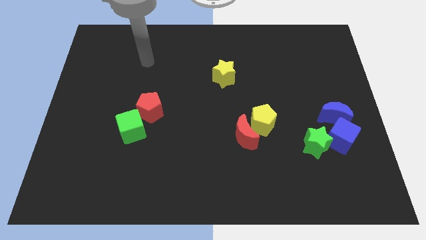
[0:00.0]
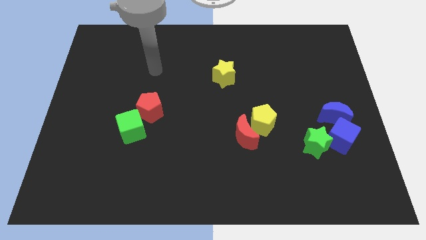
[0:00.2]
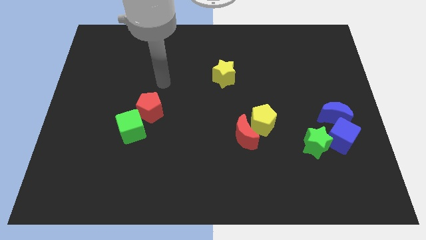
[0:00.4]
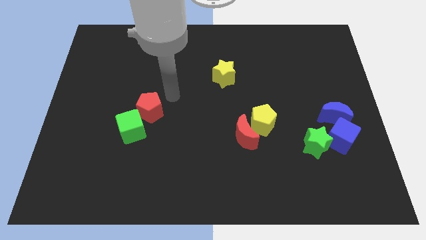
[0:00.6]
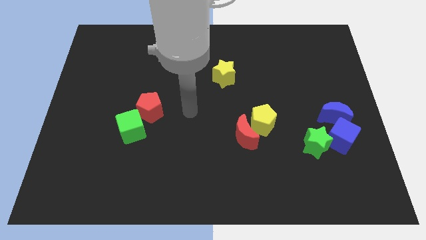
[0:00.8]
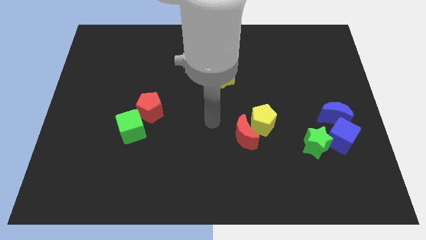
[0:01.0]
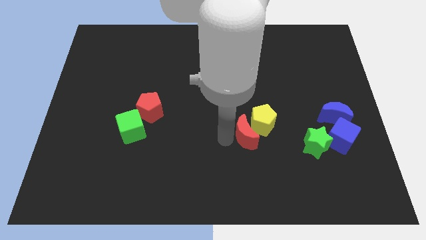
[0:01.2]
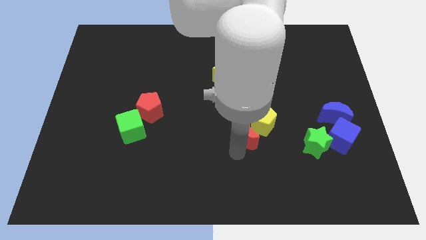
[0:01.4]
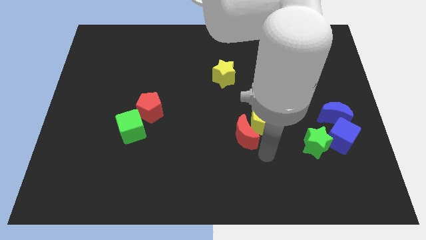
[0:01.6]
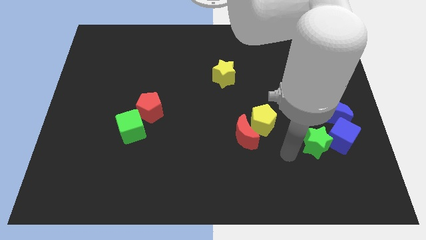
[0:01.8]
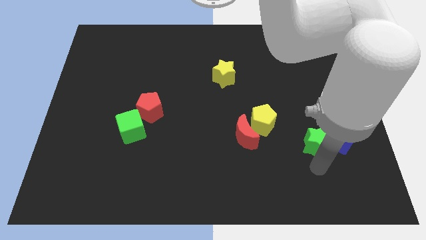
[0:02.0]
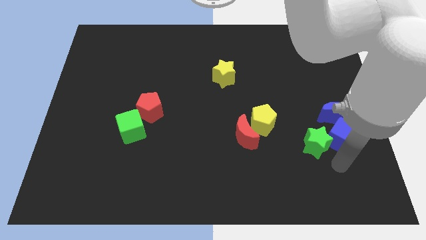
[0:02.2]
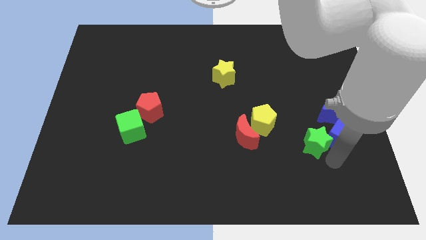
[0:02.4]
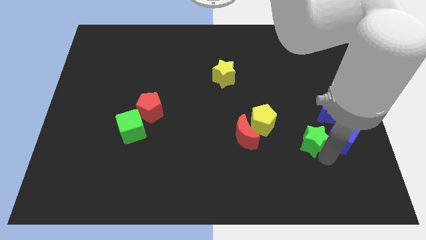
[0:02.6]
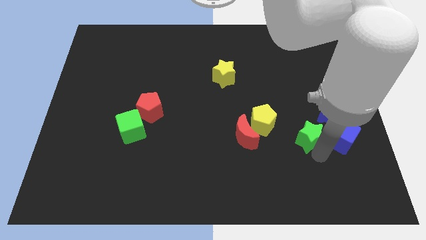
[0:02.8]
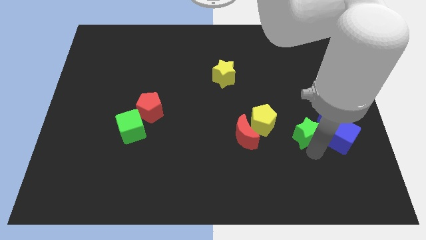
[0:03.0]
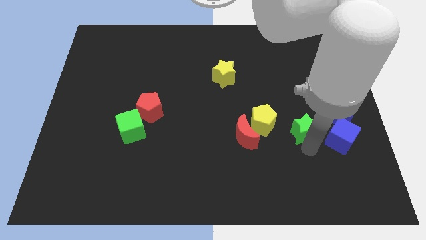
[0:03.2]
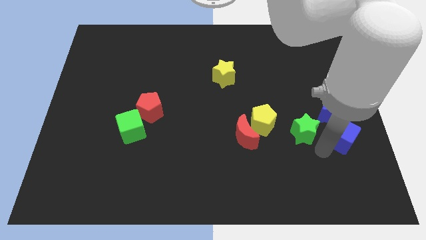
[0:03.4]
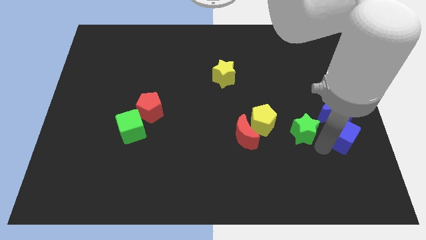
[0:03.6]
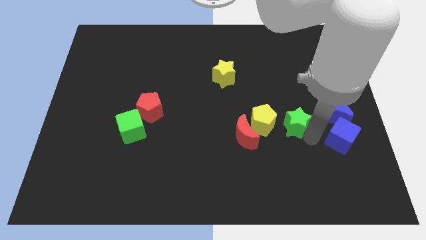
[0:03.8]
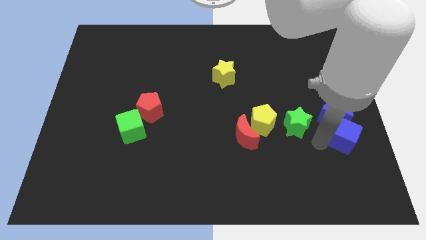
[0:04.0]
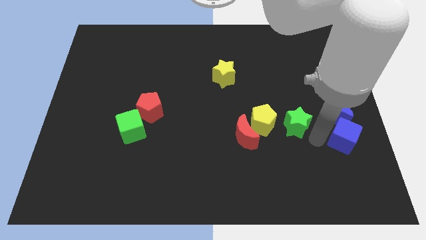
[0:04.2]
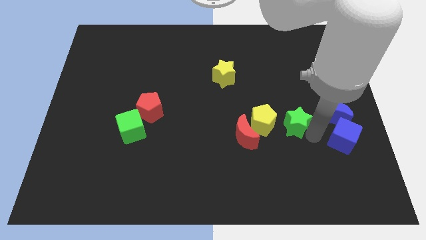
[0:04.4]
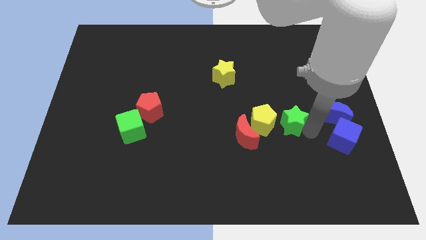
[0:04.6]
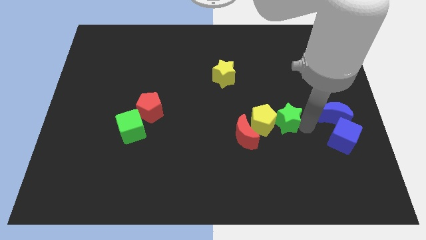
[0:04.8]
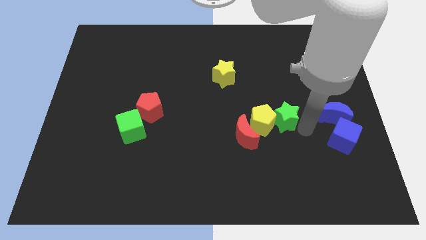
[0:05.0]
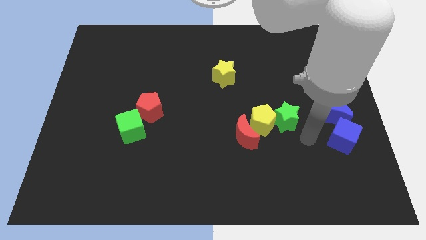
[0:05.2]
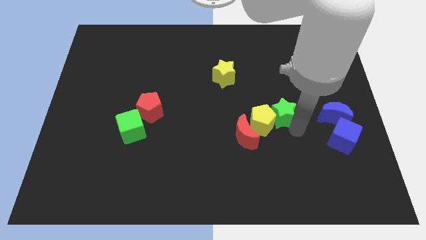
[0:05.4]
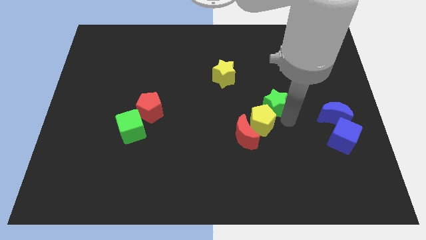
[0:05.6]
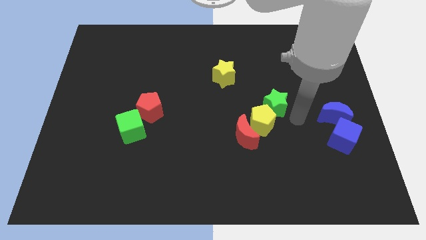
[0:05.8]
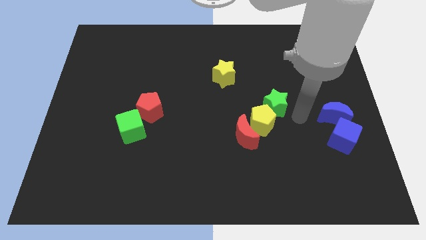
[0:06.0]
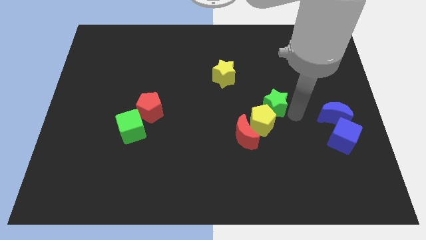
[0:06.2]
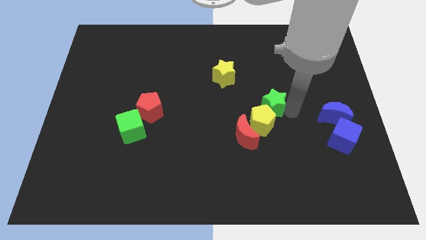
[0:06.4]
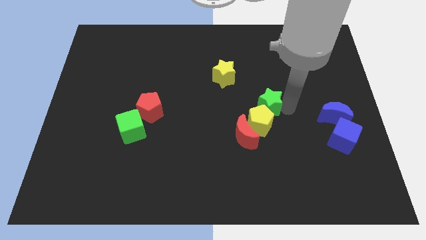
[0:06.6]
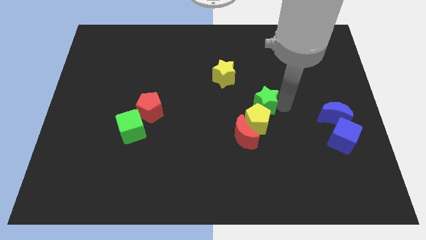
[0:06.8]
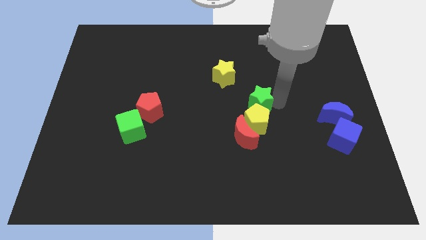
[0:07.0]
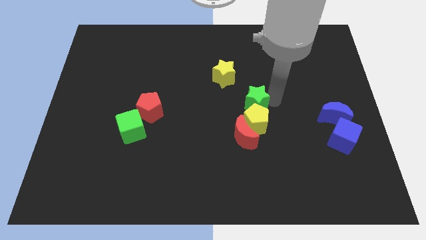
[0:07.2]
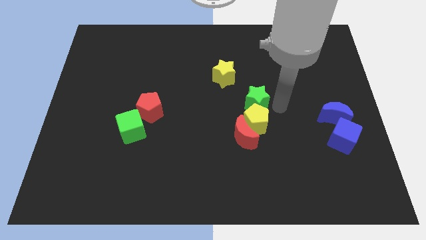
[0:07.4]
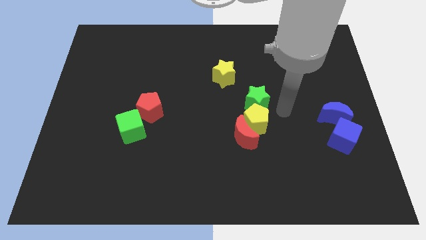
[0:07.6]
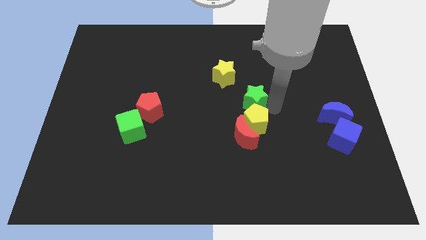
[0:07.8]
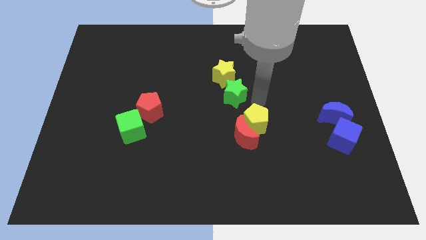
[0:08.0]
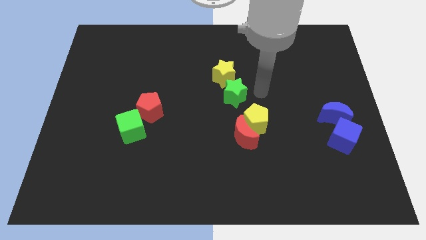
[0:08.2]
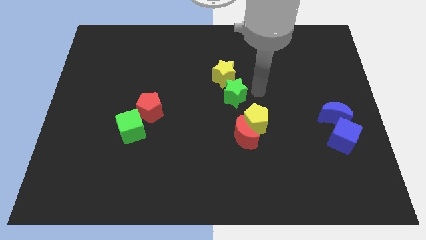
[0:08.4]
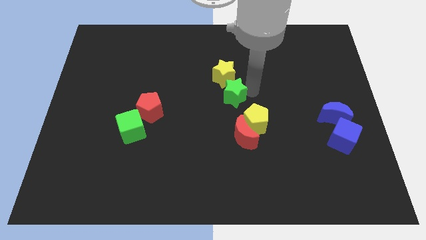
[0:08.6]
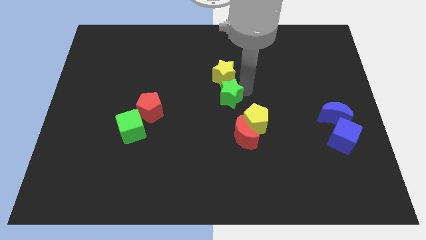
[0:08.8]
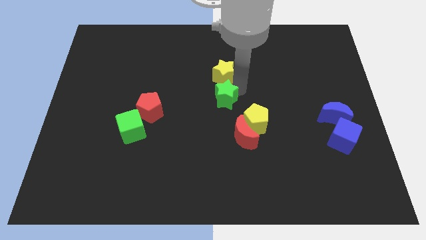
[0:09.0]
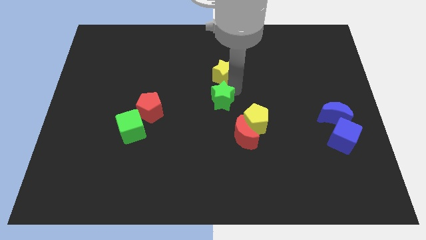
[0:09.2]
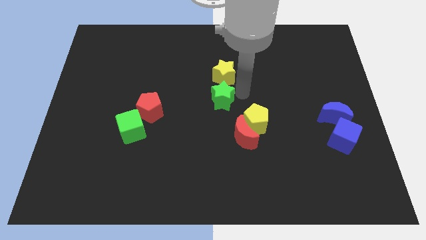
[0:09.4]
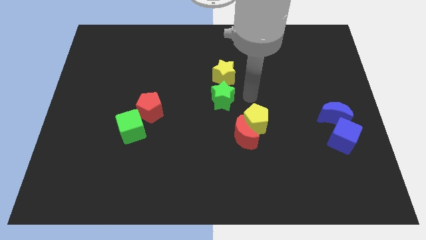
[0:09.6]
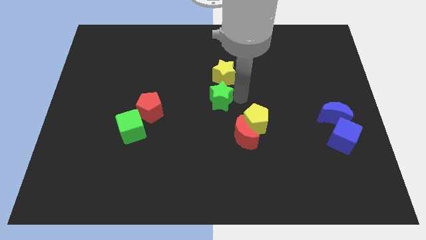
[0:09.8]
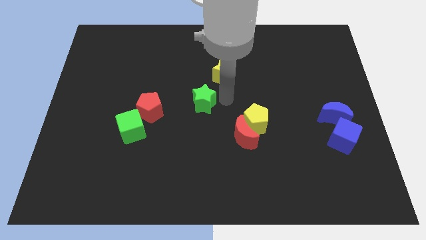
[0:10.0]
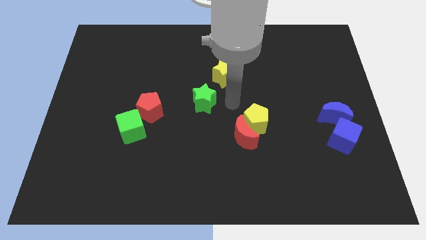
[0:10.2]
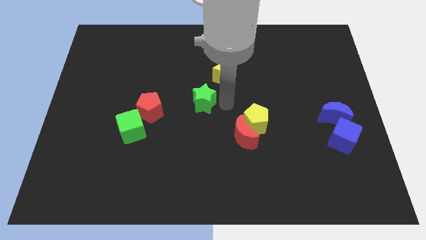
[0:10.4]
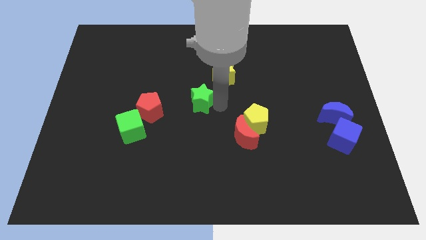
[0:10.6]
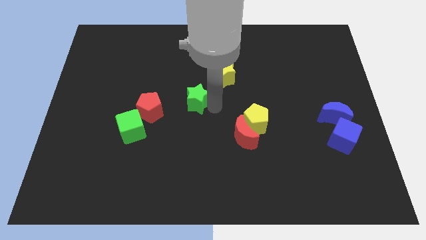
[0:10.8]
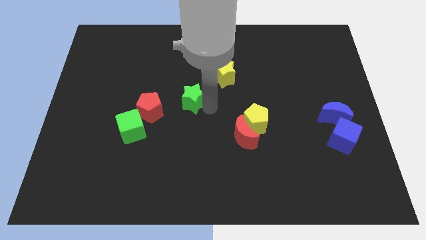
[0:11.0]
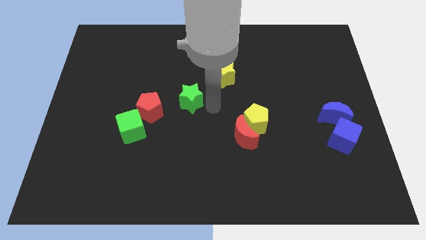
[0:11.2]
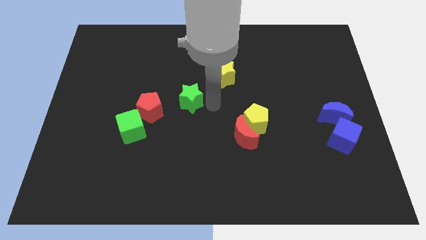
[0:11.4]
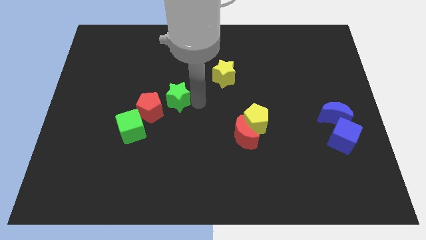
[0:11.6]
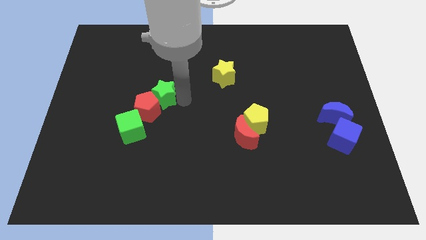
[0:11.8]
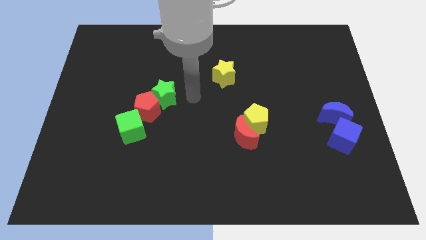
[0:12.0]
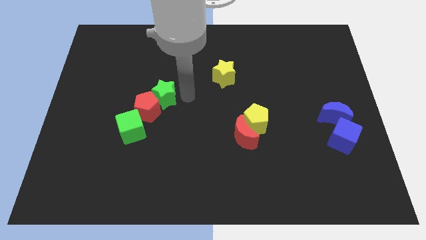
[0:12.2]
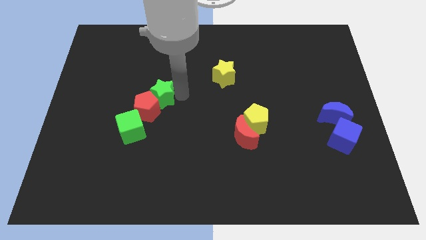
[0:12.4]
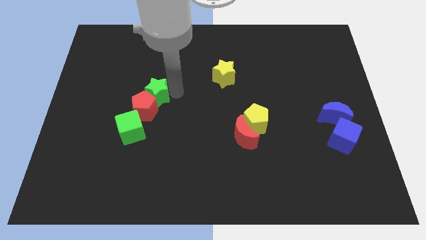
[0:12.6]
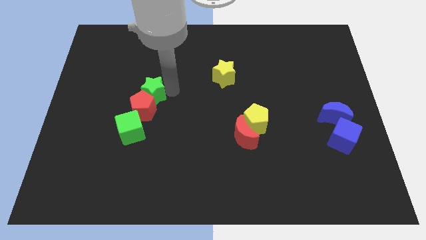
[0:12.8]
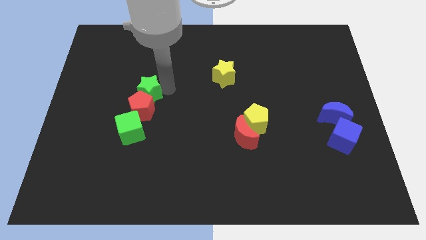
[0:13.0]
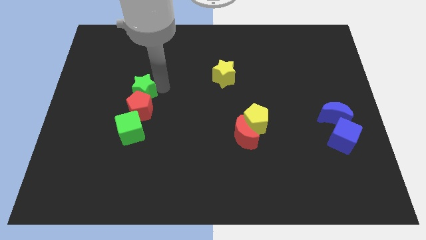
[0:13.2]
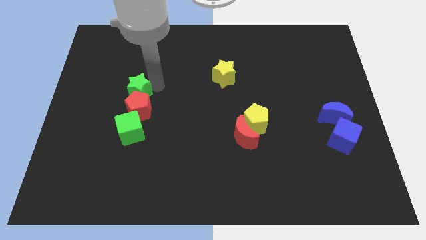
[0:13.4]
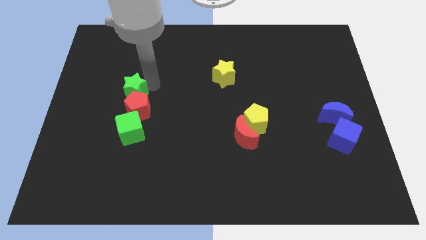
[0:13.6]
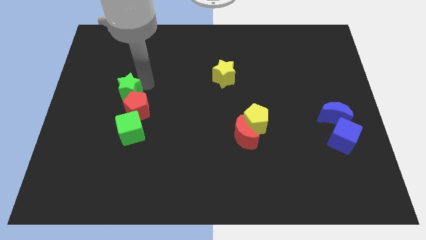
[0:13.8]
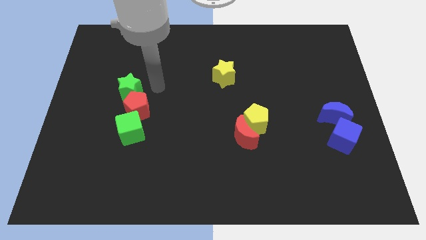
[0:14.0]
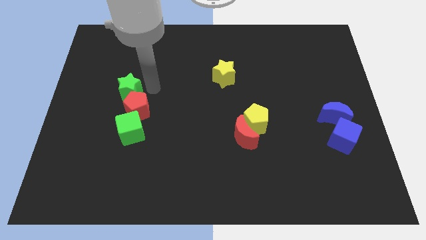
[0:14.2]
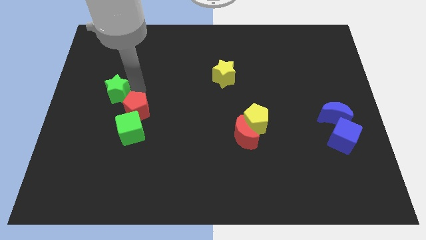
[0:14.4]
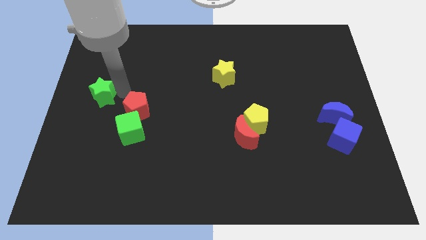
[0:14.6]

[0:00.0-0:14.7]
put the green star to the left side
